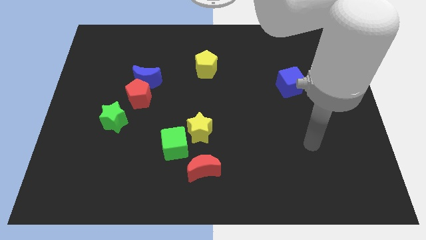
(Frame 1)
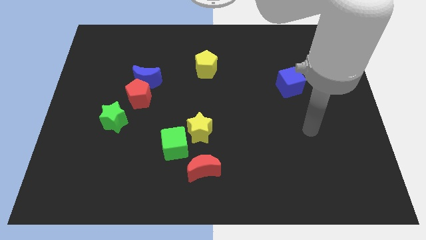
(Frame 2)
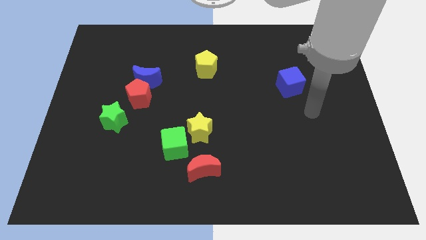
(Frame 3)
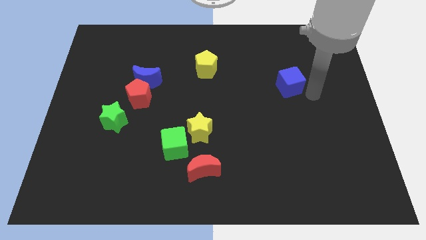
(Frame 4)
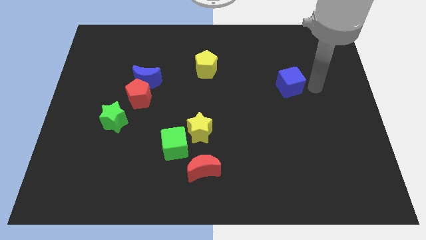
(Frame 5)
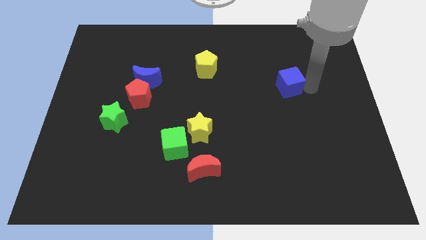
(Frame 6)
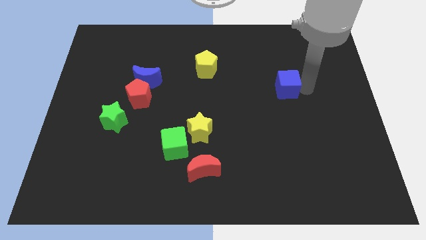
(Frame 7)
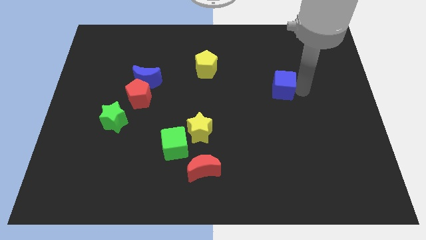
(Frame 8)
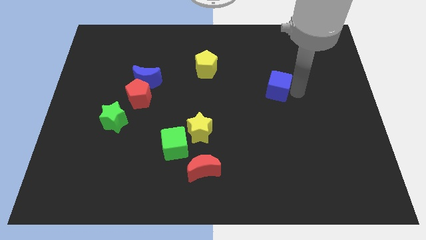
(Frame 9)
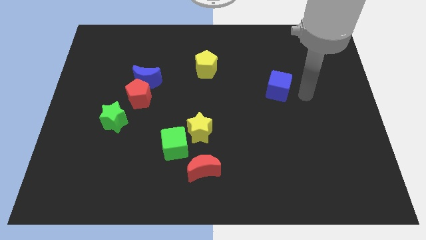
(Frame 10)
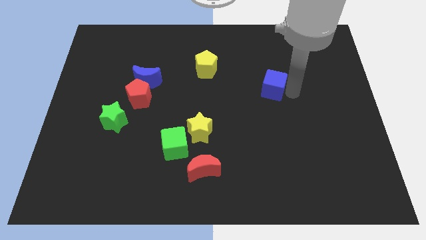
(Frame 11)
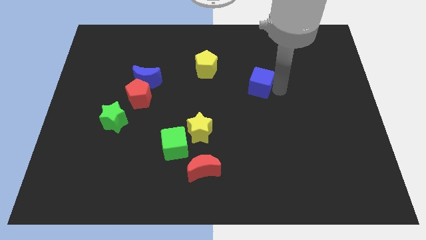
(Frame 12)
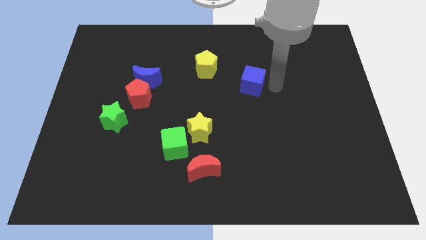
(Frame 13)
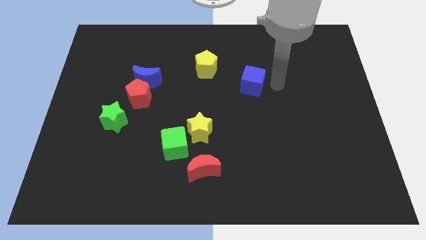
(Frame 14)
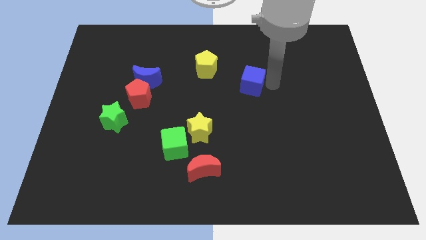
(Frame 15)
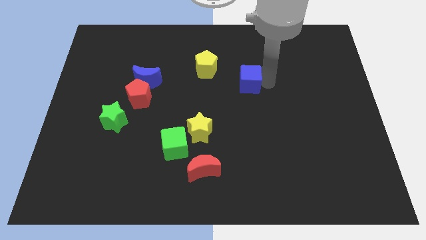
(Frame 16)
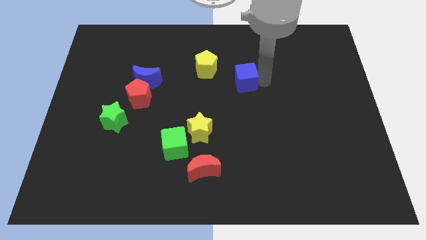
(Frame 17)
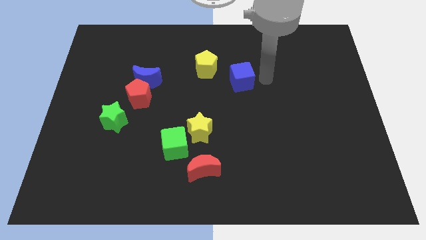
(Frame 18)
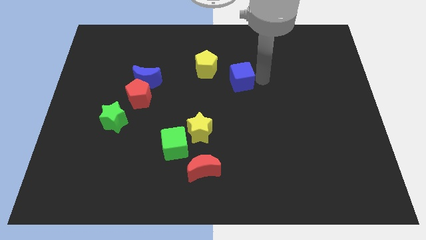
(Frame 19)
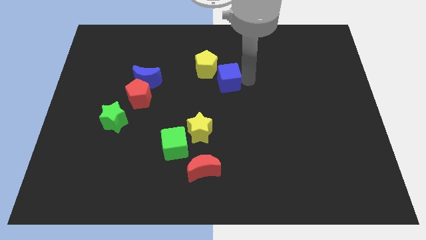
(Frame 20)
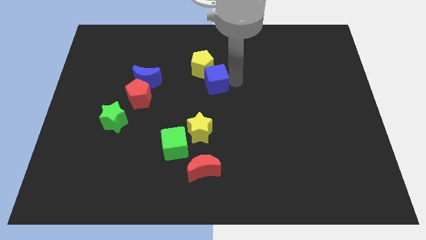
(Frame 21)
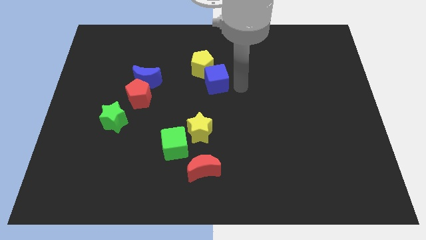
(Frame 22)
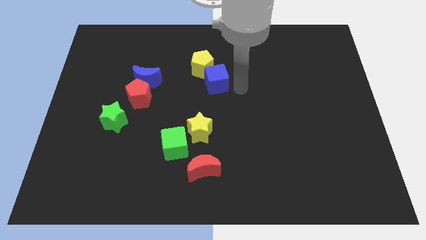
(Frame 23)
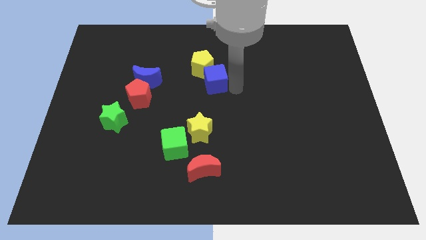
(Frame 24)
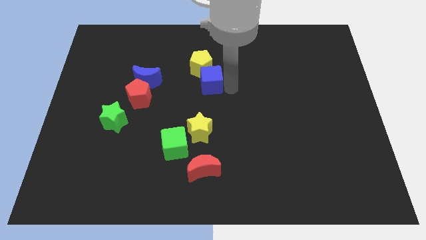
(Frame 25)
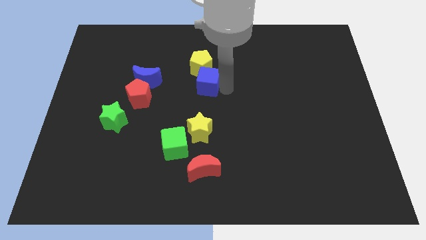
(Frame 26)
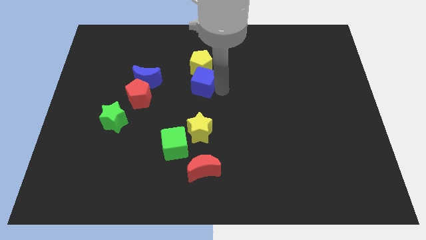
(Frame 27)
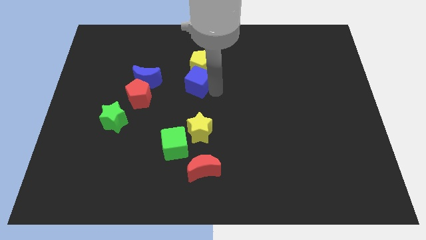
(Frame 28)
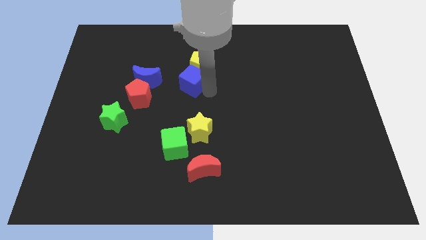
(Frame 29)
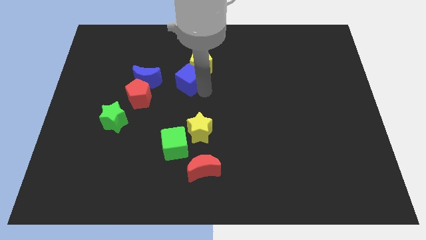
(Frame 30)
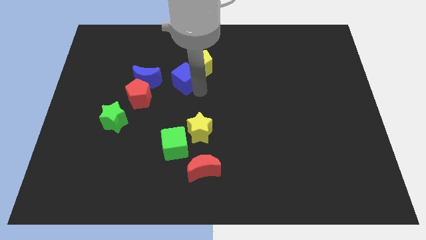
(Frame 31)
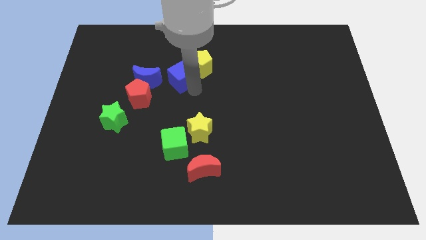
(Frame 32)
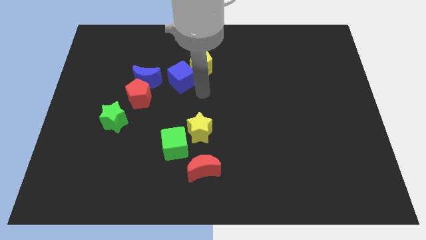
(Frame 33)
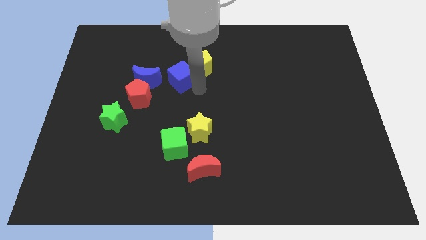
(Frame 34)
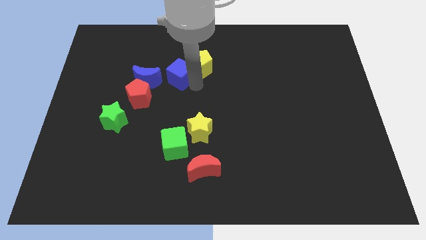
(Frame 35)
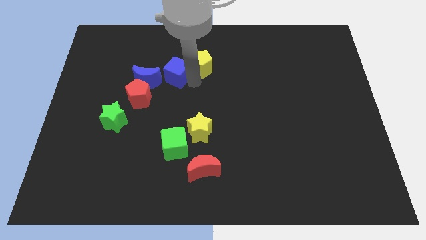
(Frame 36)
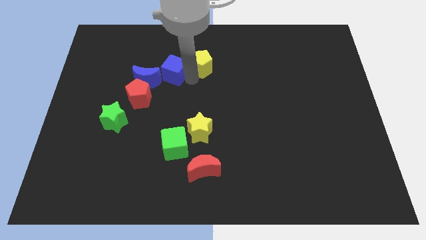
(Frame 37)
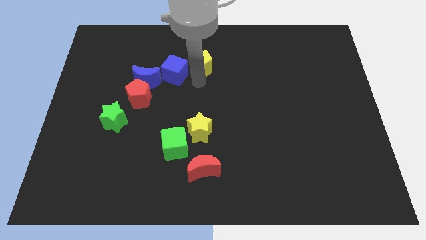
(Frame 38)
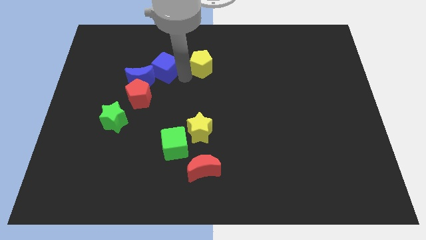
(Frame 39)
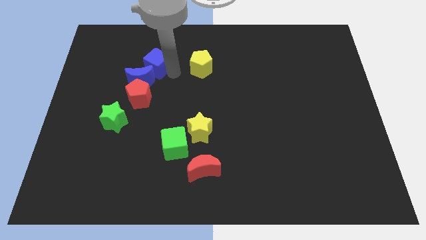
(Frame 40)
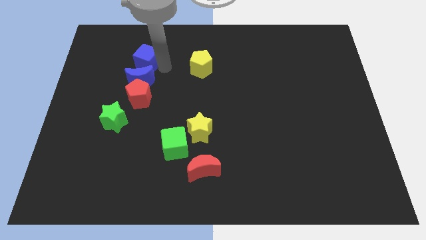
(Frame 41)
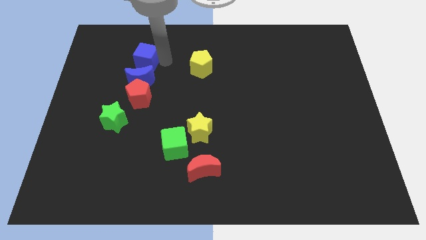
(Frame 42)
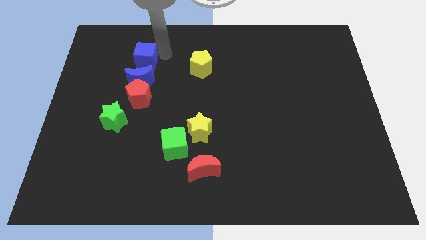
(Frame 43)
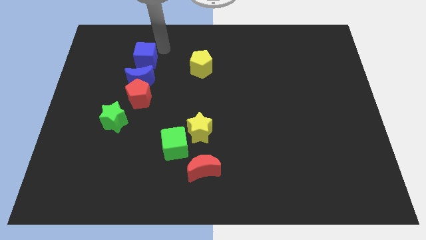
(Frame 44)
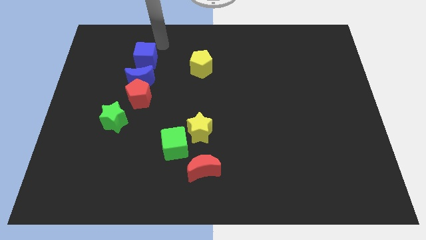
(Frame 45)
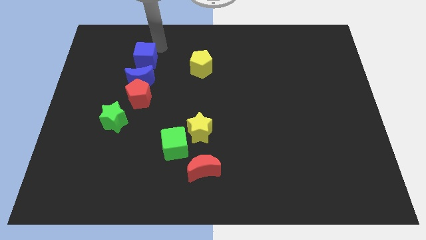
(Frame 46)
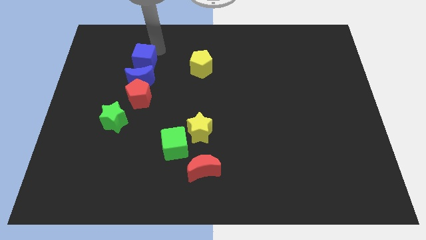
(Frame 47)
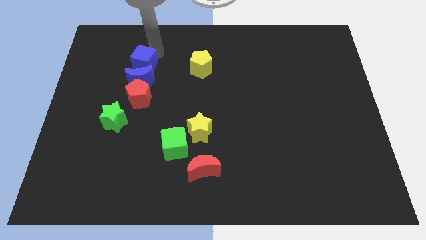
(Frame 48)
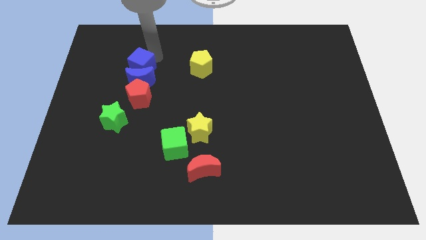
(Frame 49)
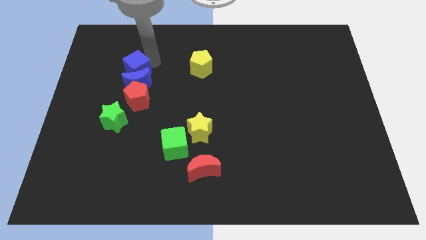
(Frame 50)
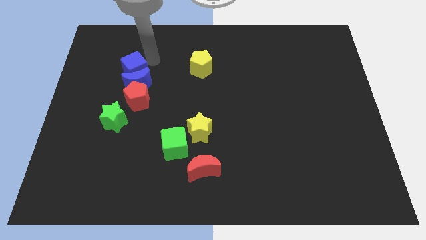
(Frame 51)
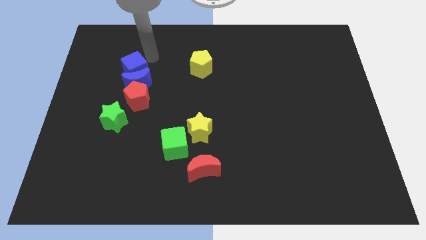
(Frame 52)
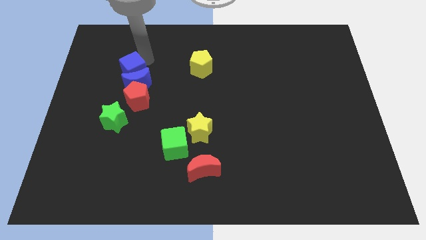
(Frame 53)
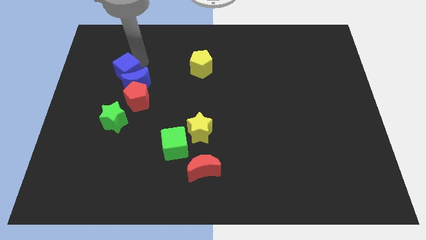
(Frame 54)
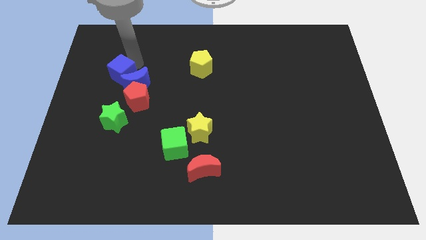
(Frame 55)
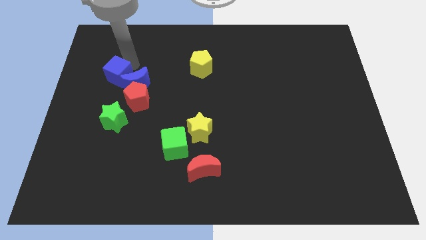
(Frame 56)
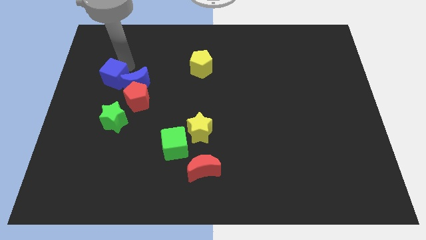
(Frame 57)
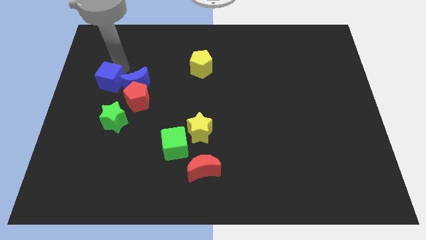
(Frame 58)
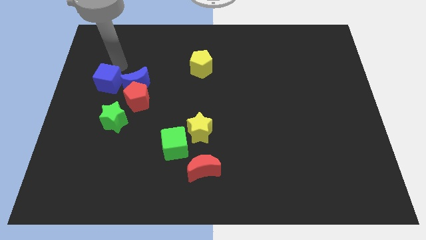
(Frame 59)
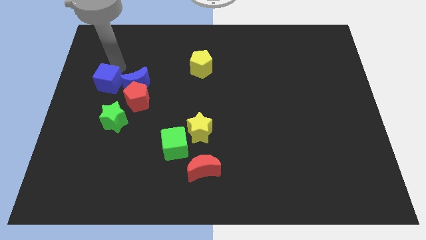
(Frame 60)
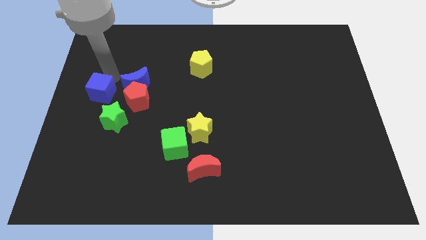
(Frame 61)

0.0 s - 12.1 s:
put the blue cube to the top left side of the green star

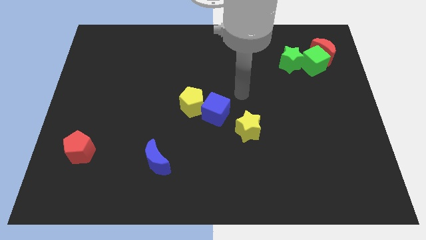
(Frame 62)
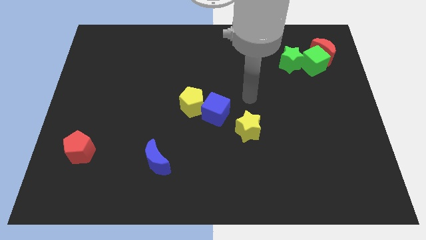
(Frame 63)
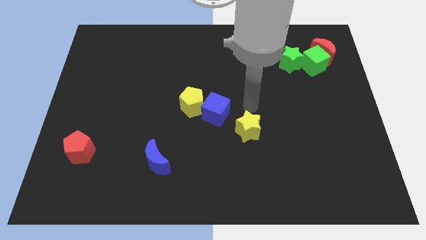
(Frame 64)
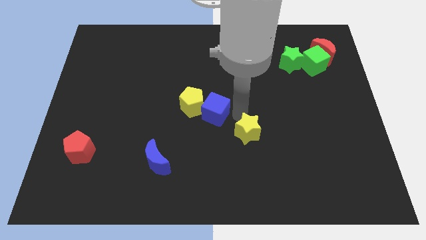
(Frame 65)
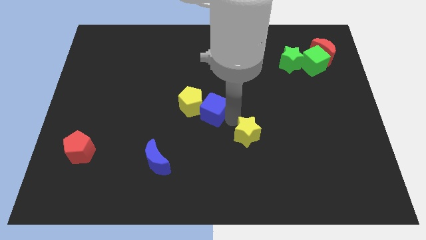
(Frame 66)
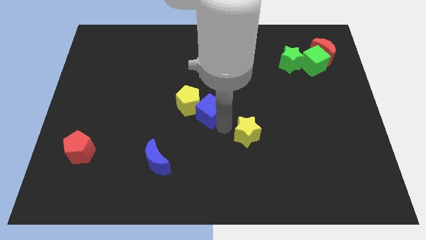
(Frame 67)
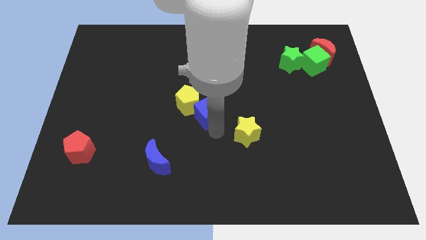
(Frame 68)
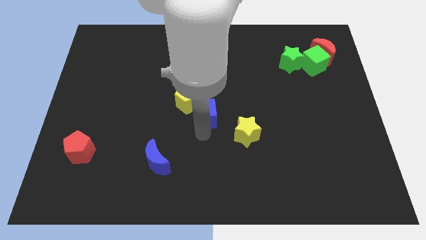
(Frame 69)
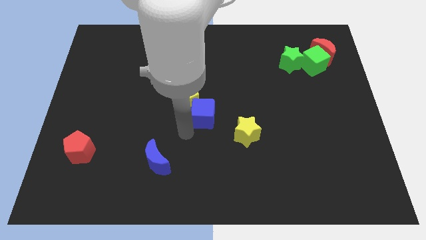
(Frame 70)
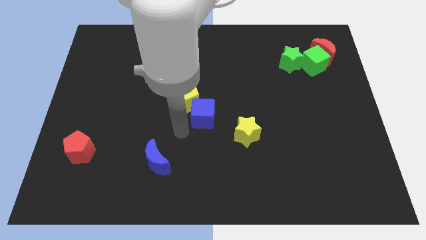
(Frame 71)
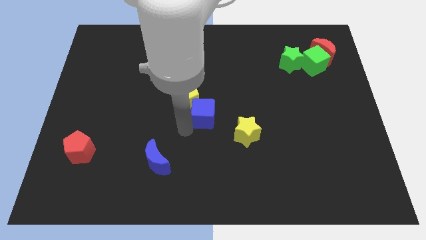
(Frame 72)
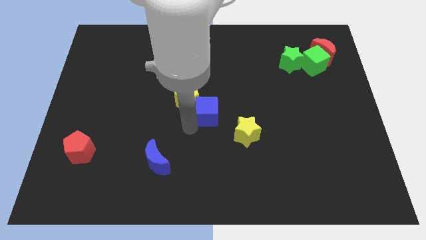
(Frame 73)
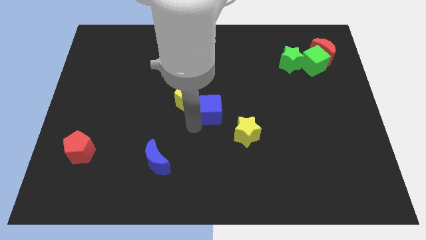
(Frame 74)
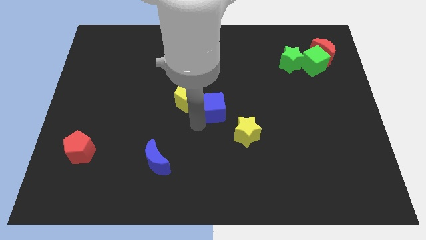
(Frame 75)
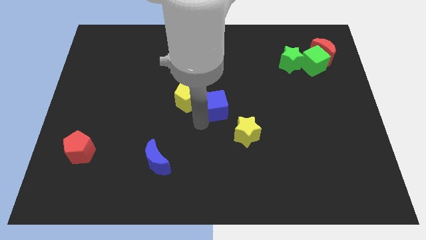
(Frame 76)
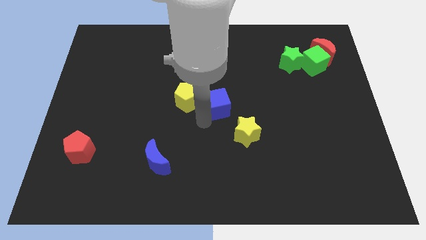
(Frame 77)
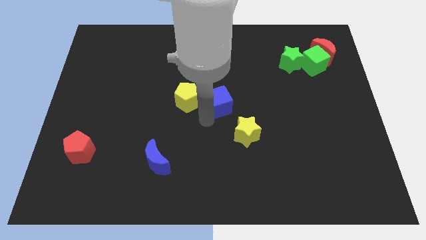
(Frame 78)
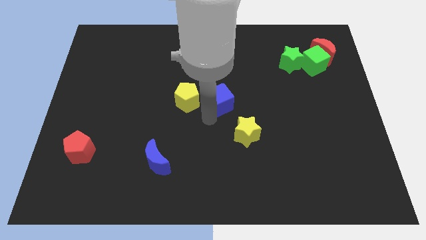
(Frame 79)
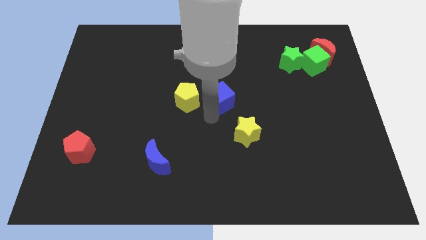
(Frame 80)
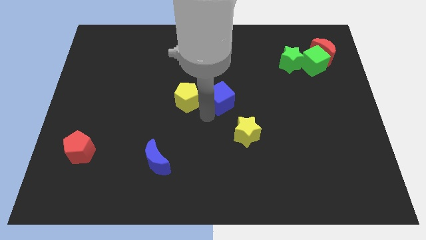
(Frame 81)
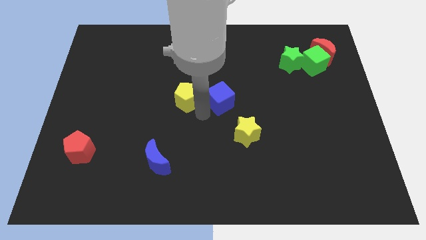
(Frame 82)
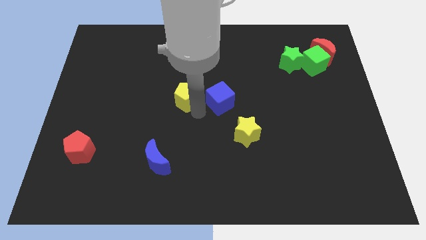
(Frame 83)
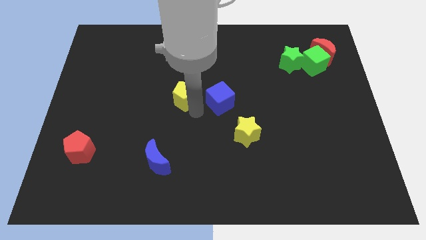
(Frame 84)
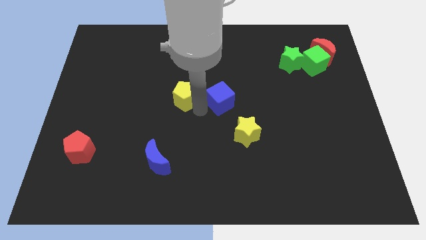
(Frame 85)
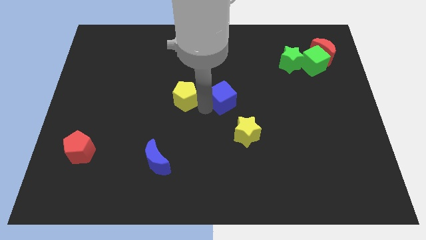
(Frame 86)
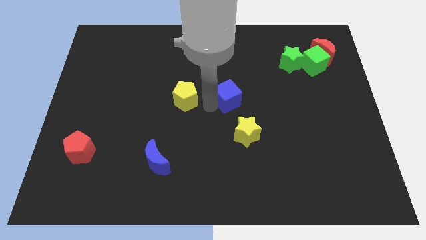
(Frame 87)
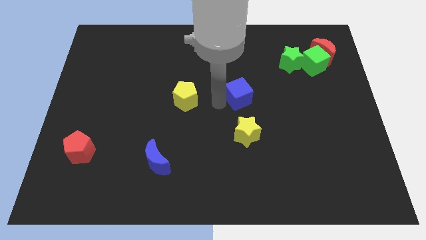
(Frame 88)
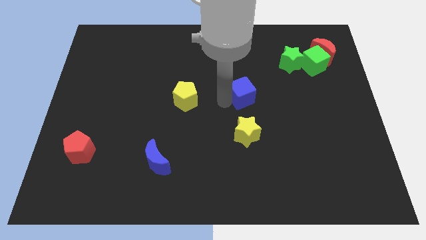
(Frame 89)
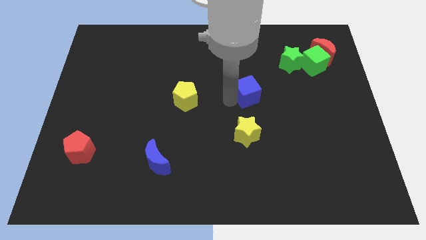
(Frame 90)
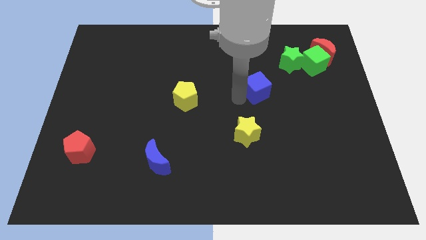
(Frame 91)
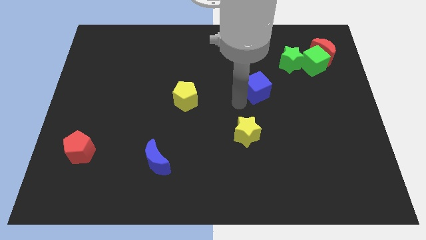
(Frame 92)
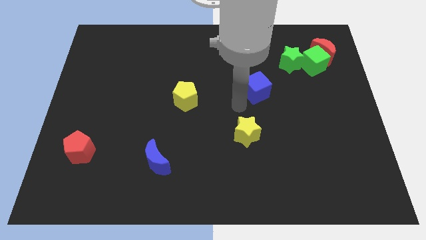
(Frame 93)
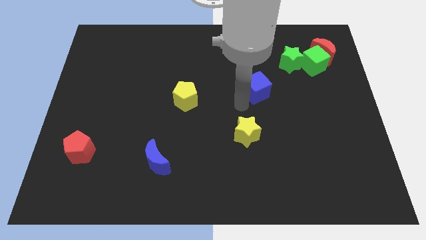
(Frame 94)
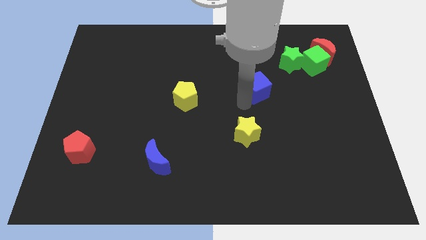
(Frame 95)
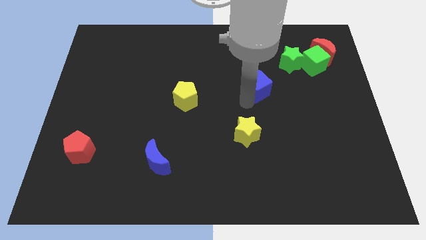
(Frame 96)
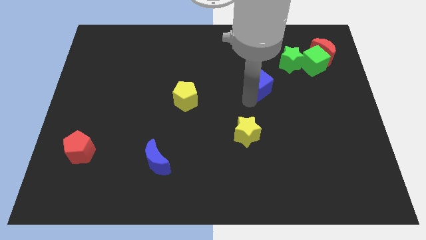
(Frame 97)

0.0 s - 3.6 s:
move the blue cube to the bottom left of the green star
